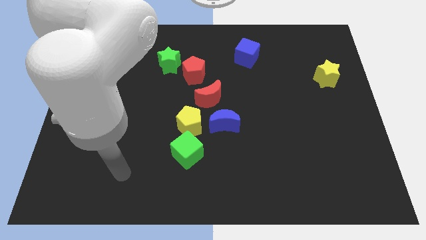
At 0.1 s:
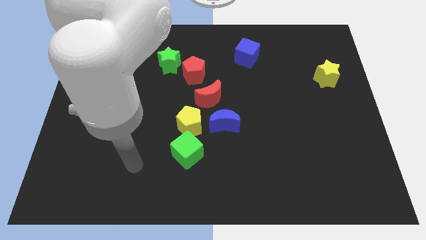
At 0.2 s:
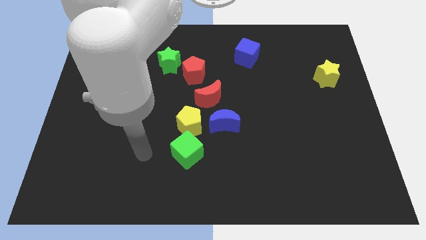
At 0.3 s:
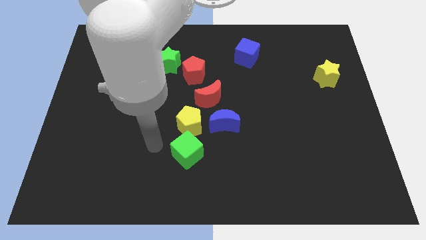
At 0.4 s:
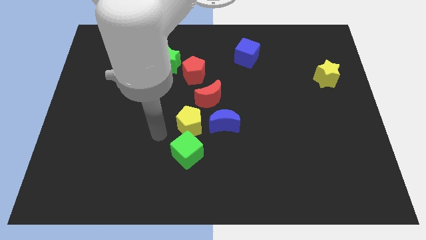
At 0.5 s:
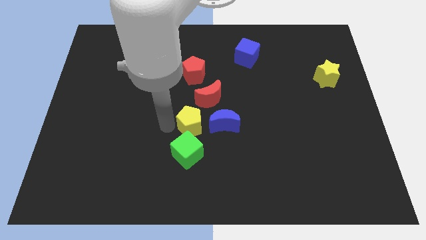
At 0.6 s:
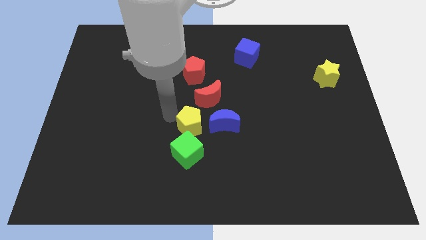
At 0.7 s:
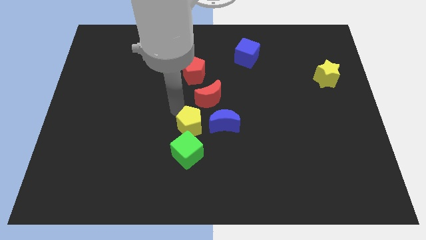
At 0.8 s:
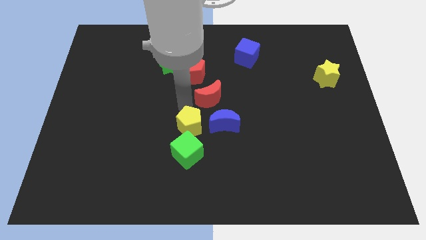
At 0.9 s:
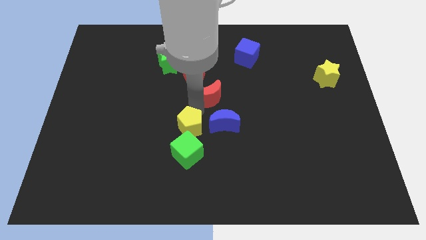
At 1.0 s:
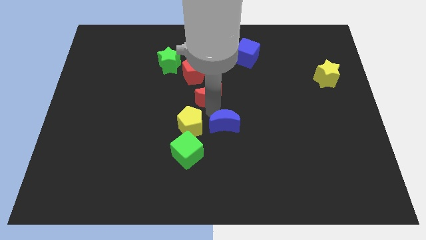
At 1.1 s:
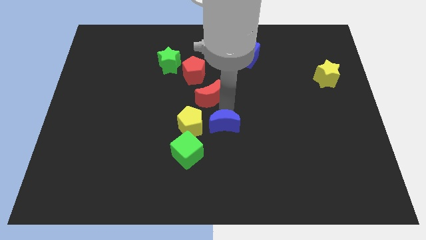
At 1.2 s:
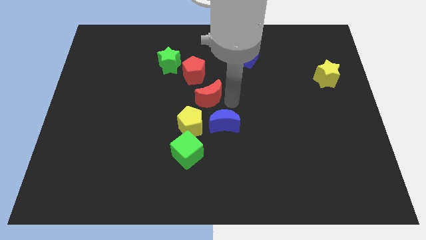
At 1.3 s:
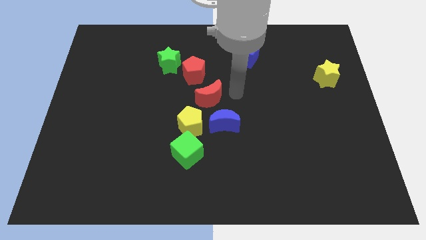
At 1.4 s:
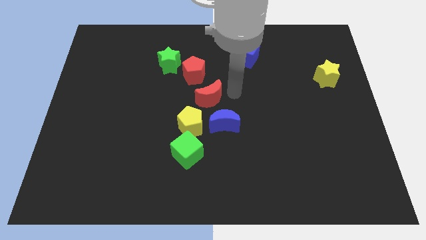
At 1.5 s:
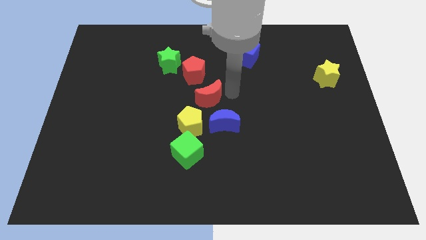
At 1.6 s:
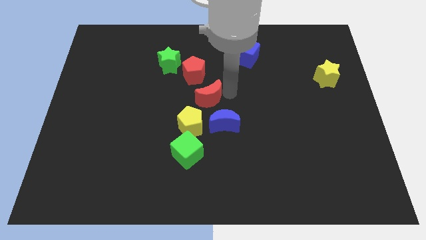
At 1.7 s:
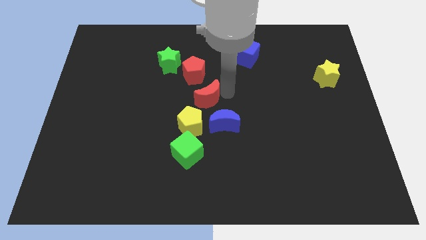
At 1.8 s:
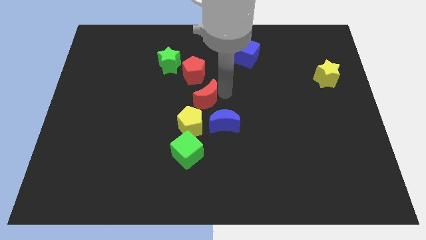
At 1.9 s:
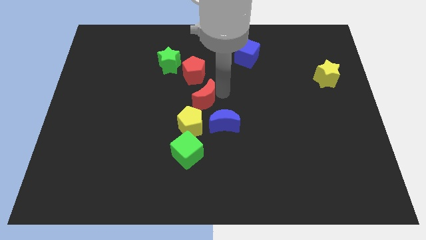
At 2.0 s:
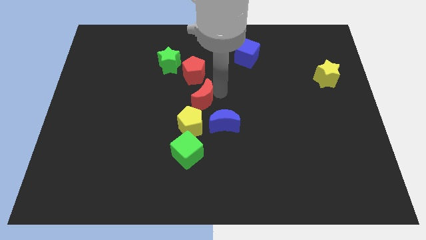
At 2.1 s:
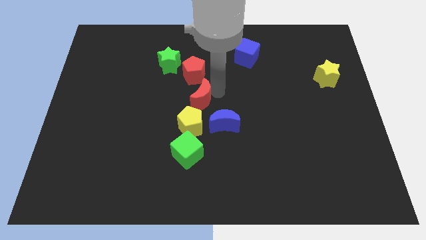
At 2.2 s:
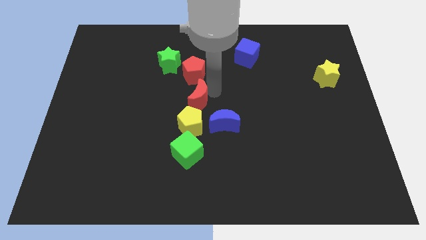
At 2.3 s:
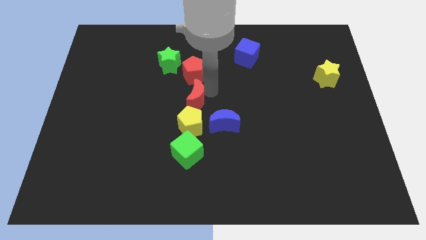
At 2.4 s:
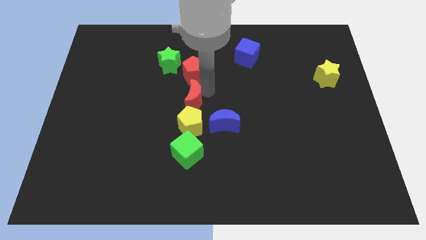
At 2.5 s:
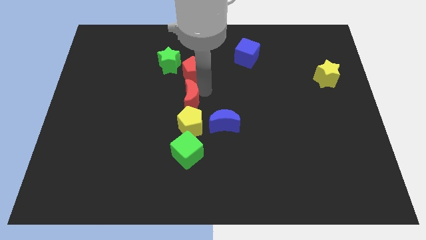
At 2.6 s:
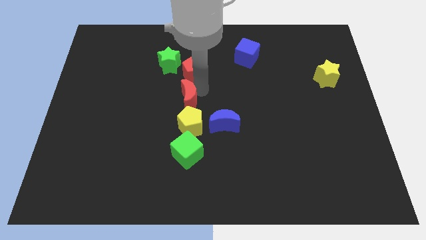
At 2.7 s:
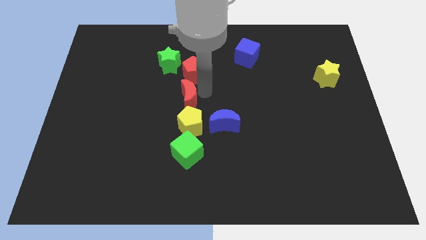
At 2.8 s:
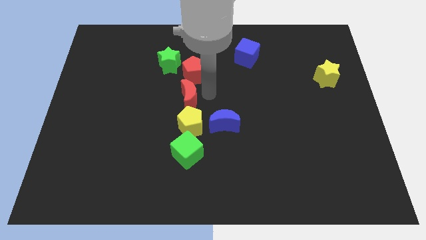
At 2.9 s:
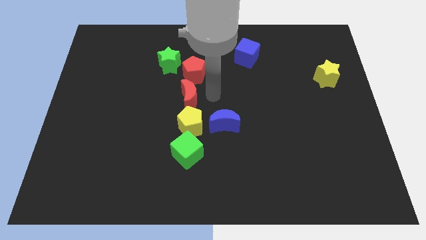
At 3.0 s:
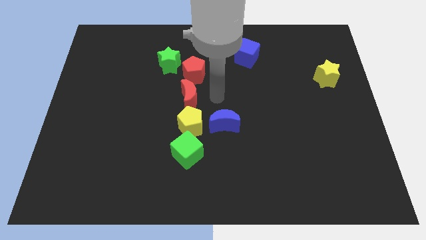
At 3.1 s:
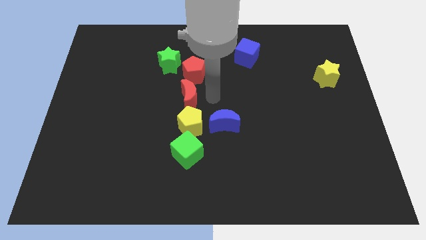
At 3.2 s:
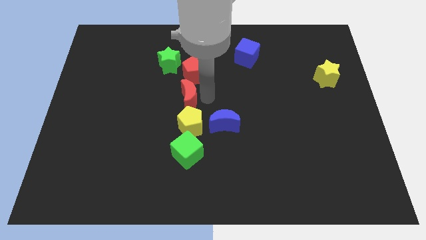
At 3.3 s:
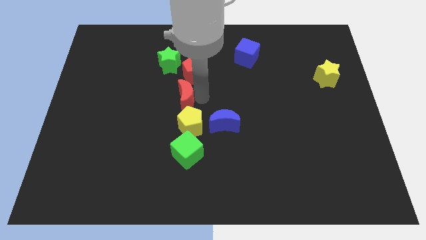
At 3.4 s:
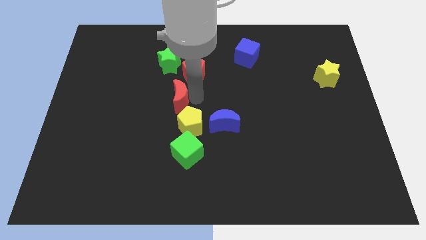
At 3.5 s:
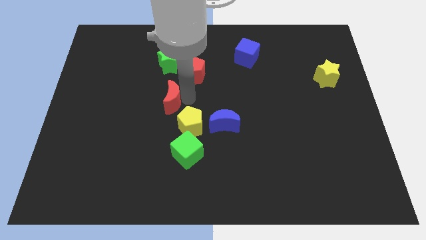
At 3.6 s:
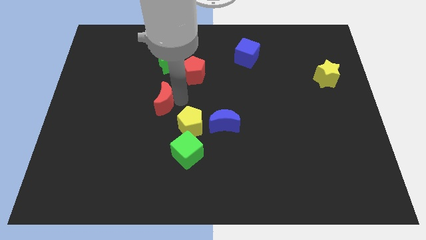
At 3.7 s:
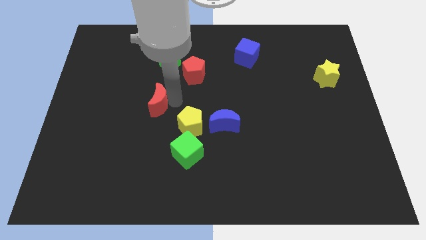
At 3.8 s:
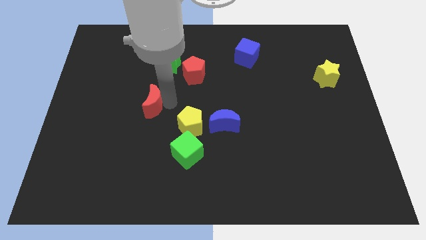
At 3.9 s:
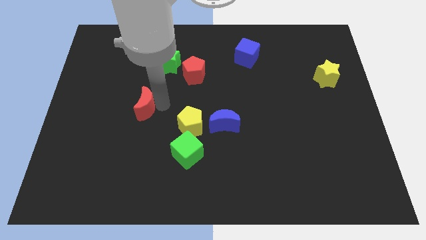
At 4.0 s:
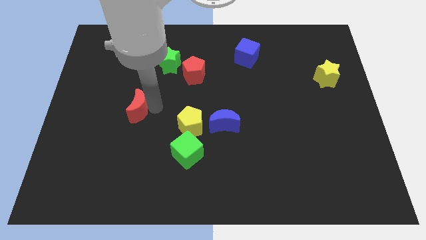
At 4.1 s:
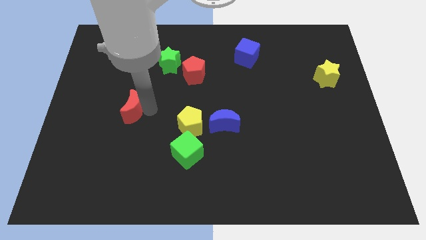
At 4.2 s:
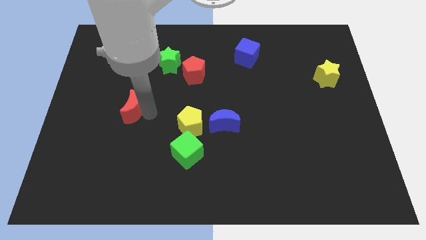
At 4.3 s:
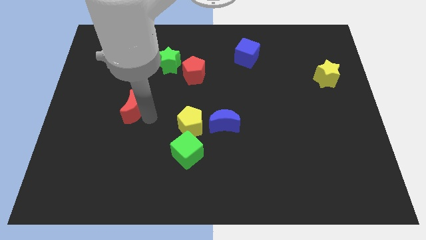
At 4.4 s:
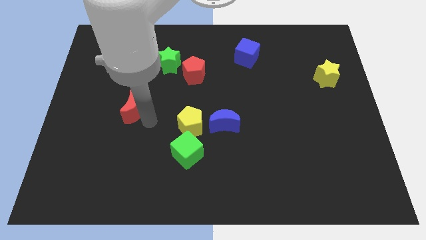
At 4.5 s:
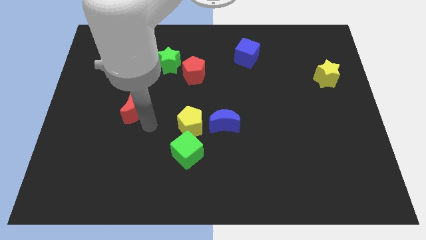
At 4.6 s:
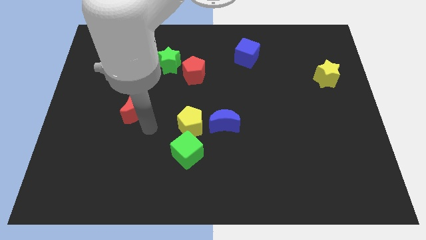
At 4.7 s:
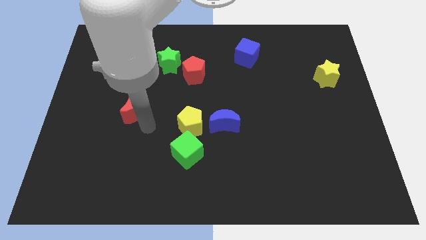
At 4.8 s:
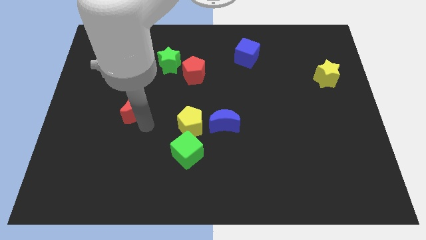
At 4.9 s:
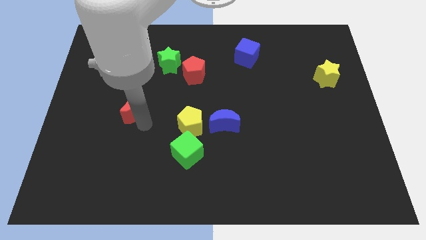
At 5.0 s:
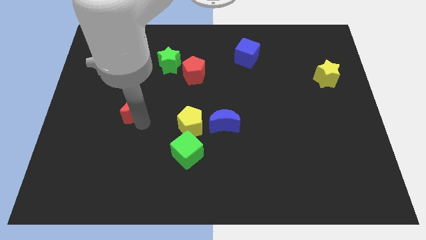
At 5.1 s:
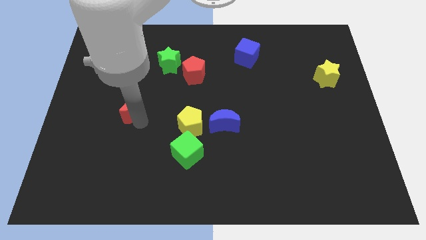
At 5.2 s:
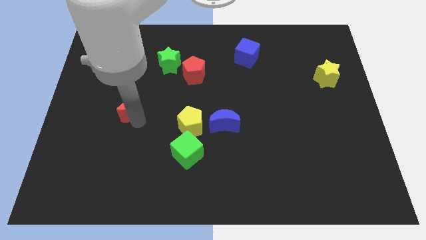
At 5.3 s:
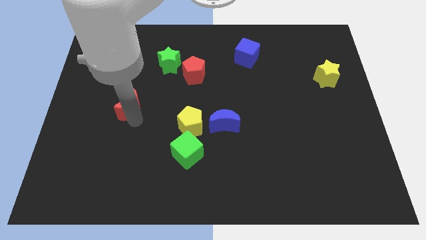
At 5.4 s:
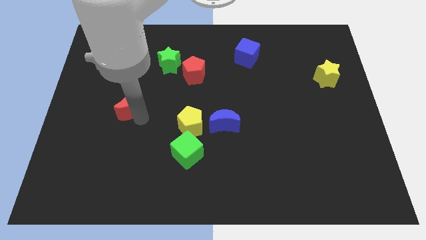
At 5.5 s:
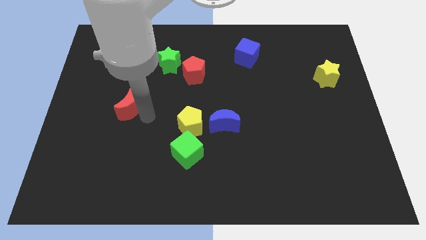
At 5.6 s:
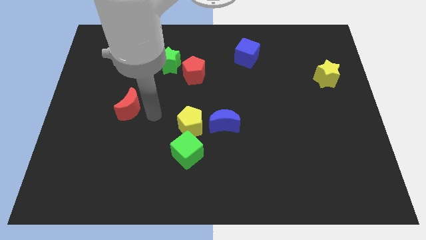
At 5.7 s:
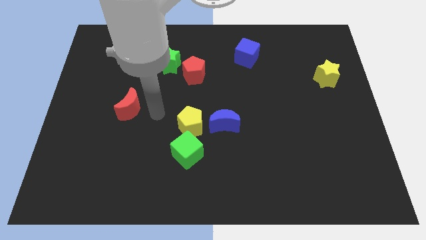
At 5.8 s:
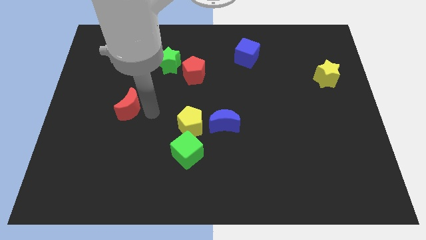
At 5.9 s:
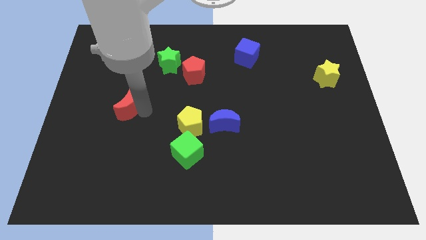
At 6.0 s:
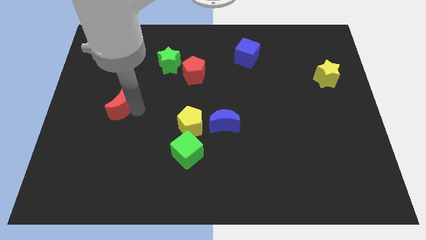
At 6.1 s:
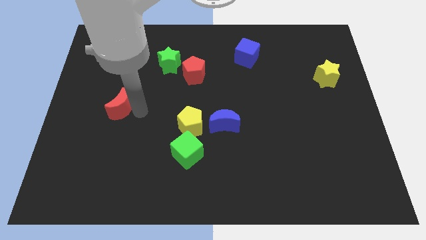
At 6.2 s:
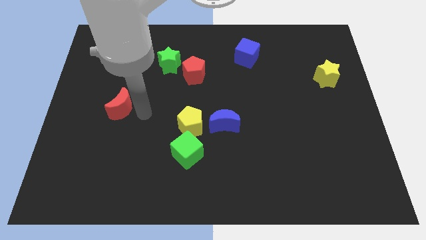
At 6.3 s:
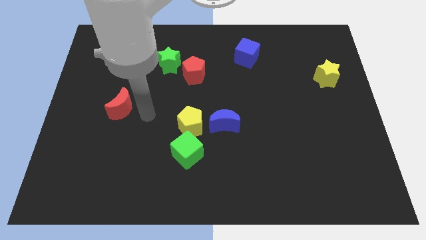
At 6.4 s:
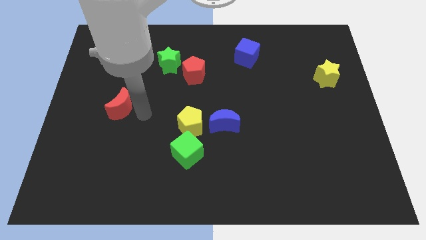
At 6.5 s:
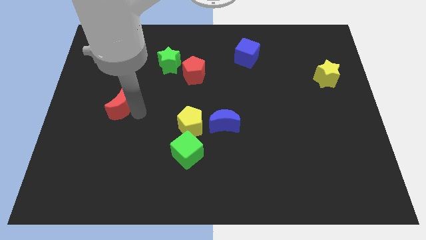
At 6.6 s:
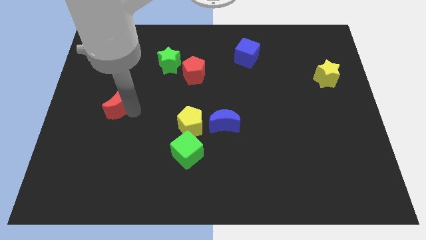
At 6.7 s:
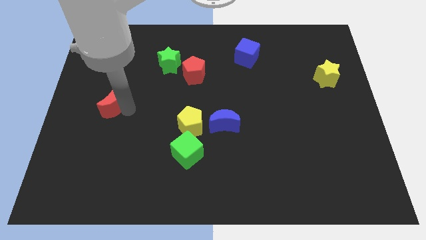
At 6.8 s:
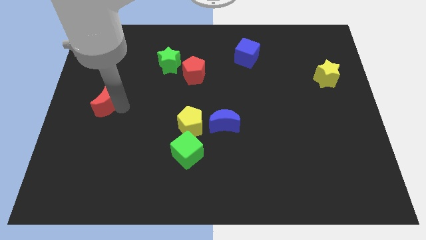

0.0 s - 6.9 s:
put the red moon to the left side of the board

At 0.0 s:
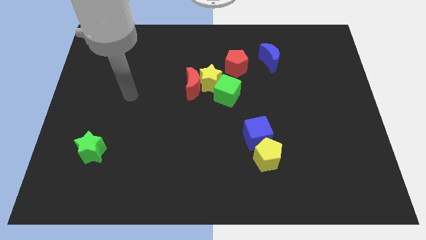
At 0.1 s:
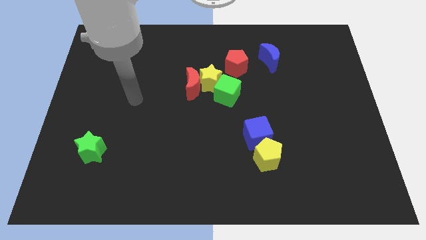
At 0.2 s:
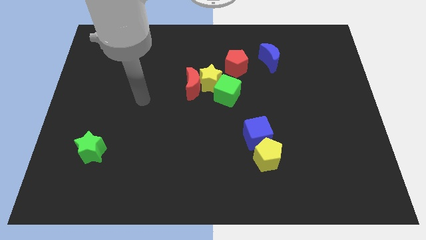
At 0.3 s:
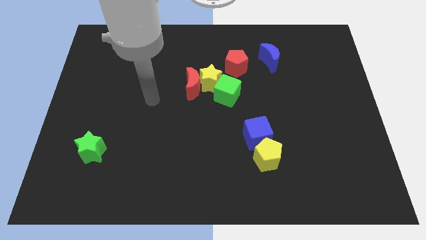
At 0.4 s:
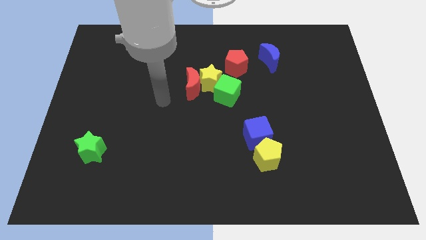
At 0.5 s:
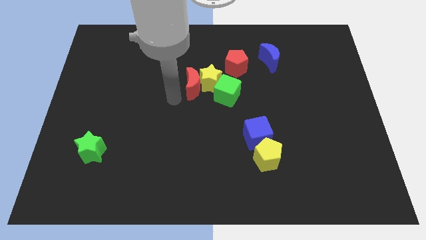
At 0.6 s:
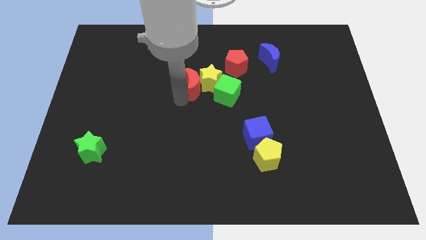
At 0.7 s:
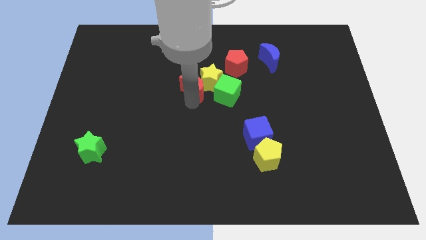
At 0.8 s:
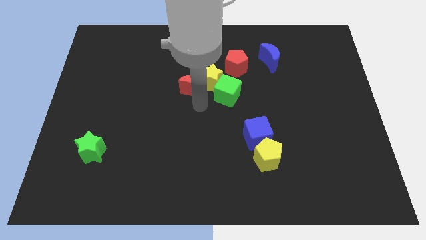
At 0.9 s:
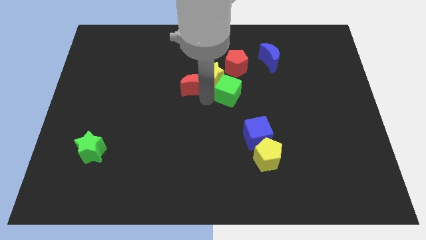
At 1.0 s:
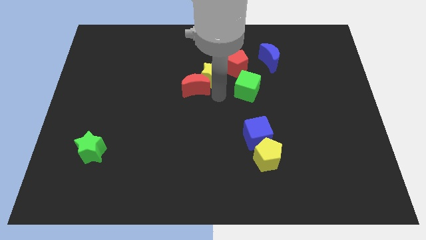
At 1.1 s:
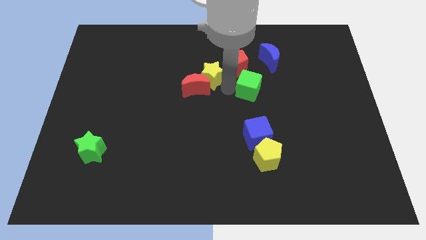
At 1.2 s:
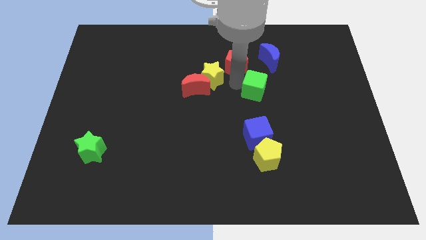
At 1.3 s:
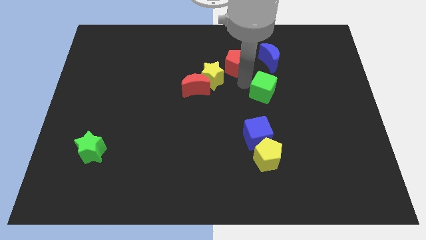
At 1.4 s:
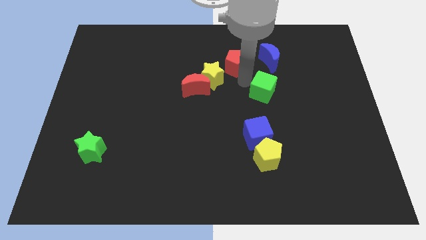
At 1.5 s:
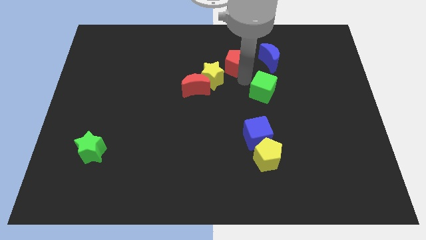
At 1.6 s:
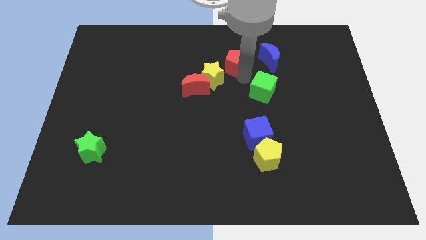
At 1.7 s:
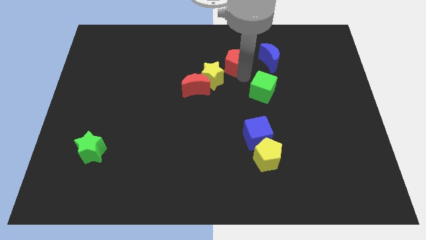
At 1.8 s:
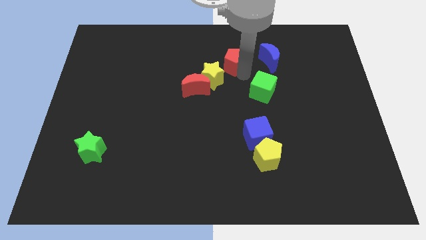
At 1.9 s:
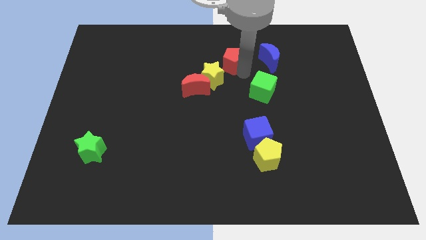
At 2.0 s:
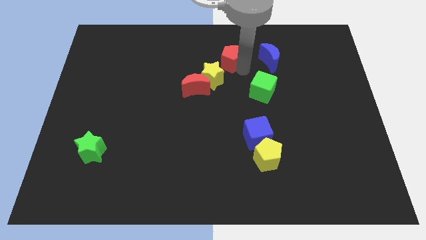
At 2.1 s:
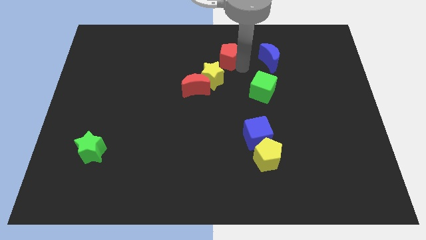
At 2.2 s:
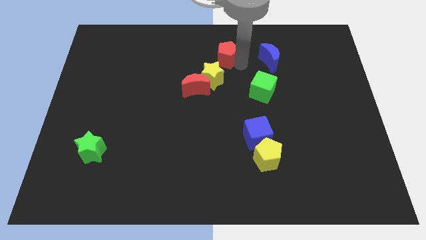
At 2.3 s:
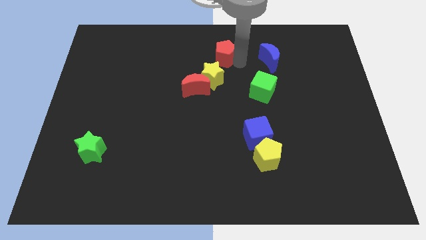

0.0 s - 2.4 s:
slide the red pentagon to the towards your base
